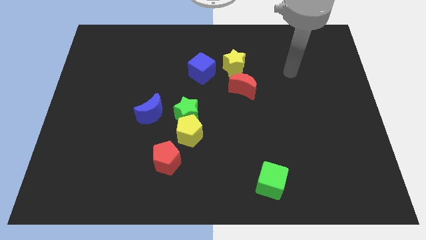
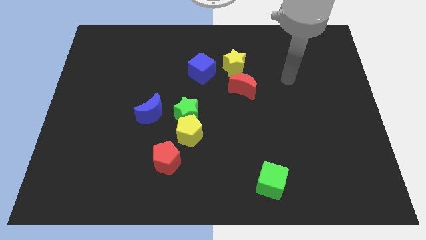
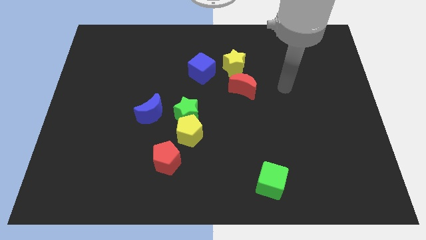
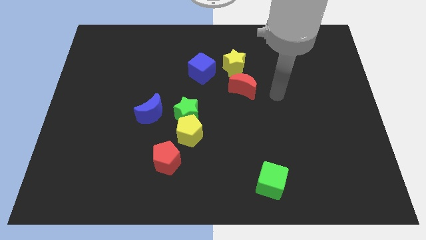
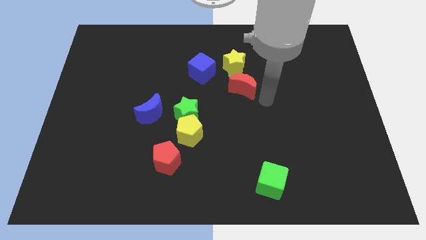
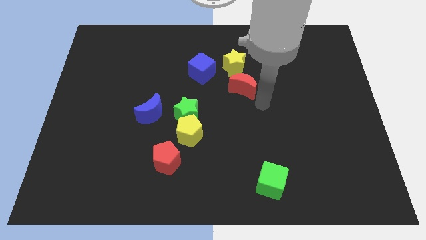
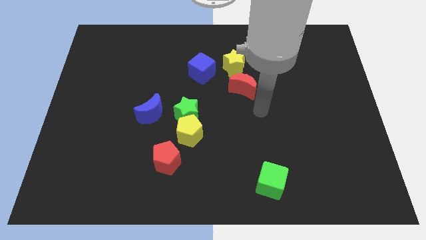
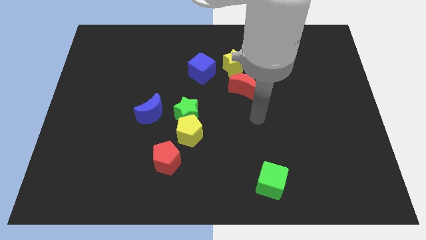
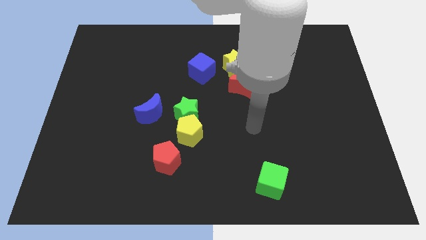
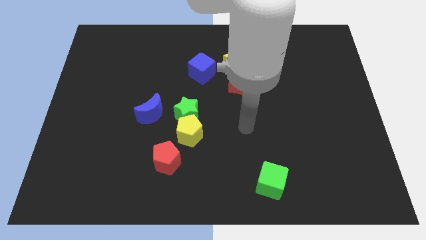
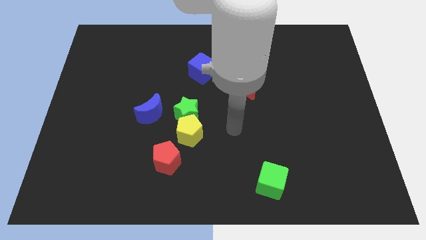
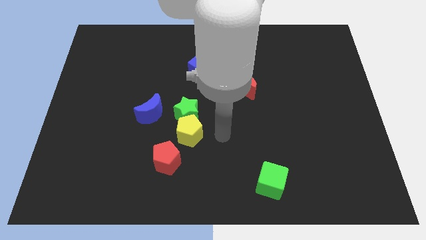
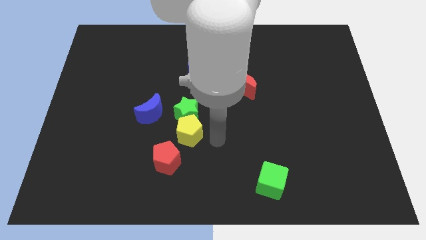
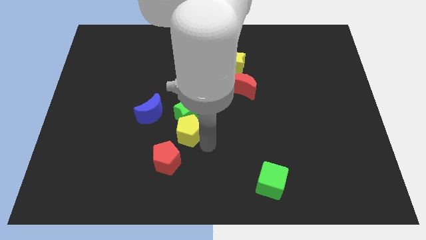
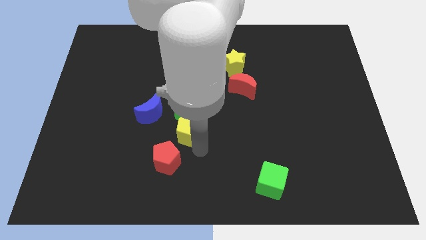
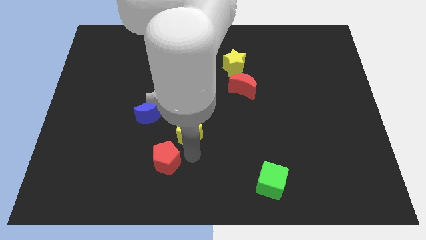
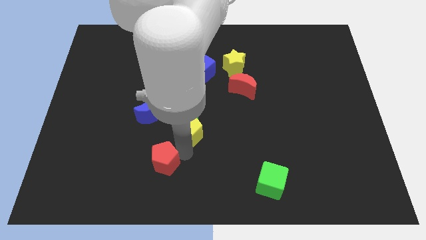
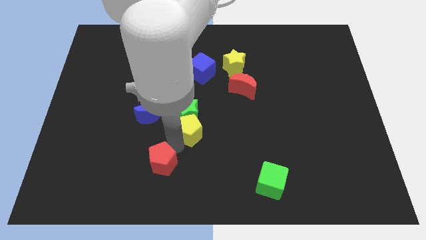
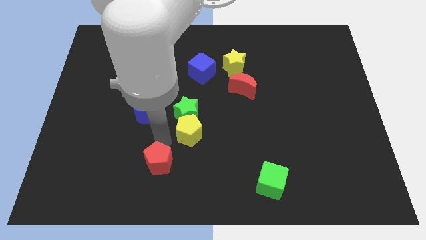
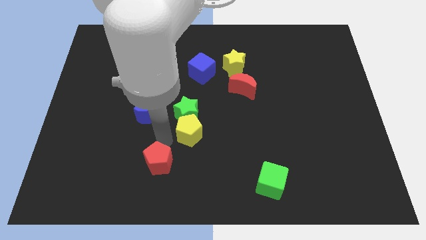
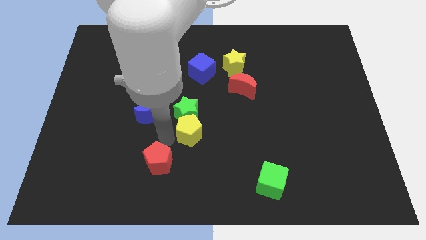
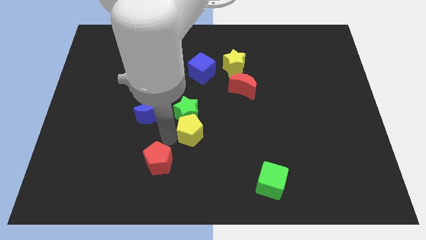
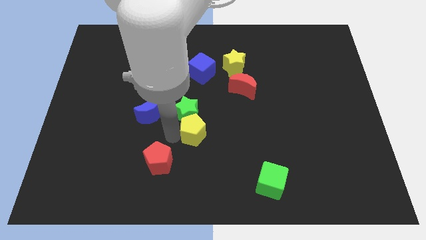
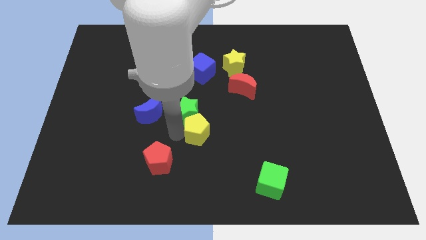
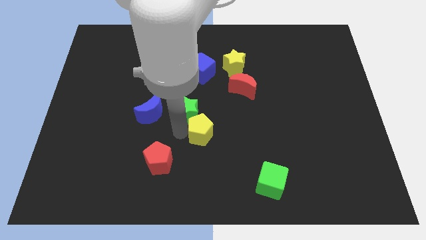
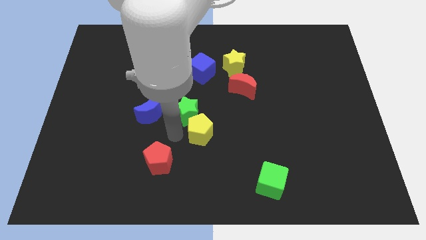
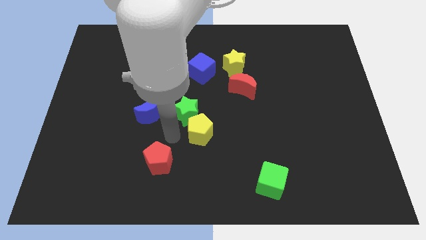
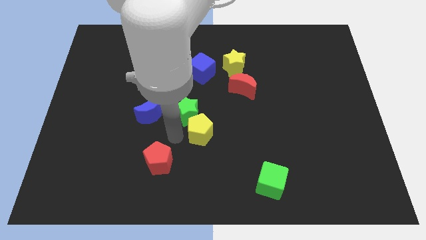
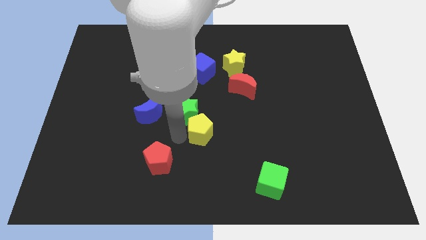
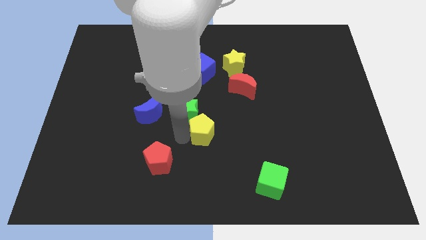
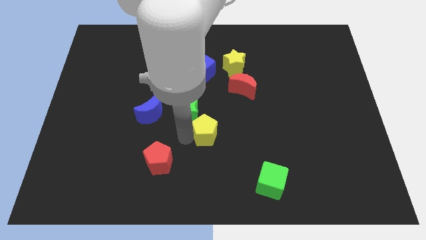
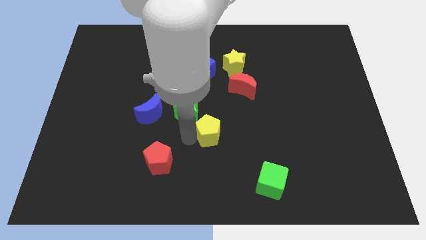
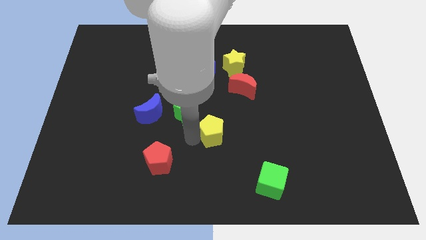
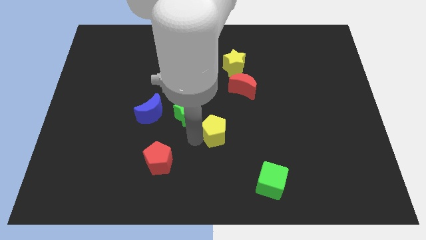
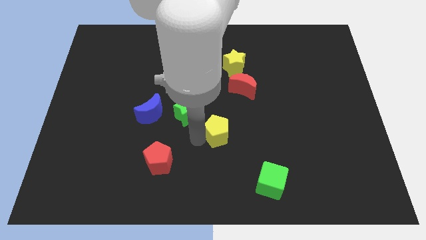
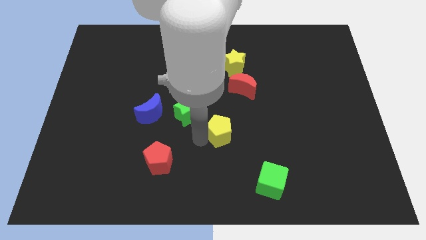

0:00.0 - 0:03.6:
pull the yellow pentagon apart from the green star and red pentagon

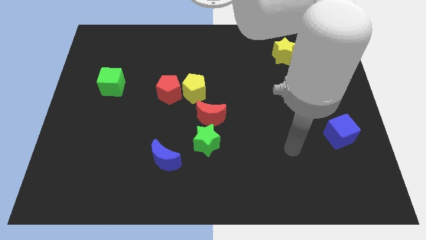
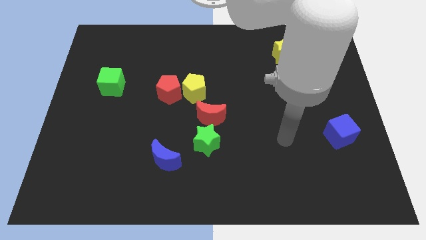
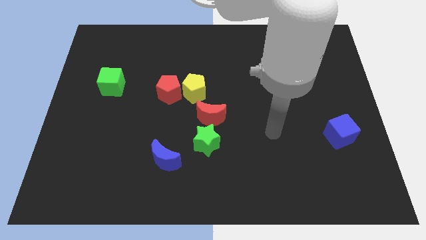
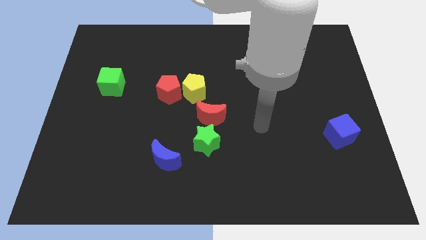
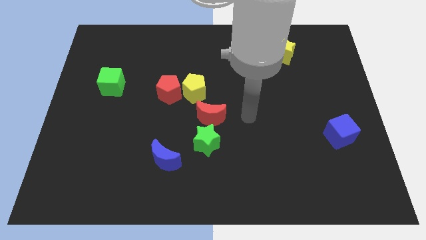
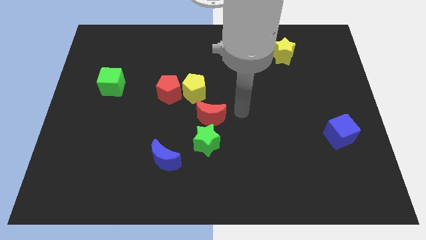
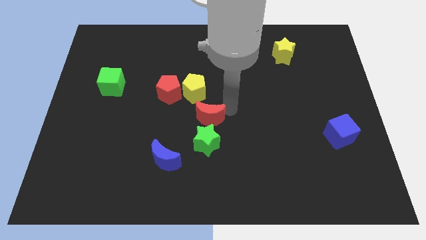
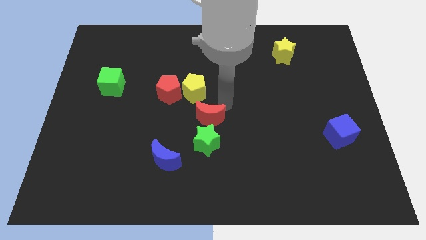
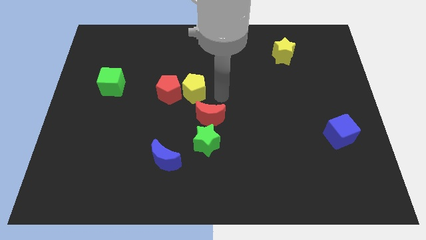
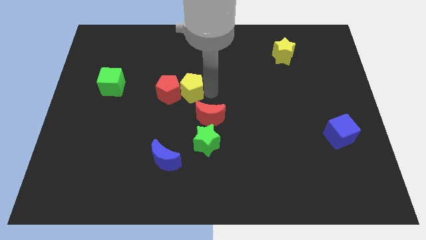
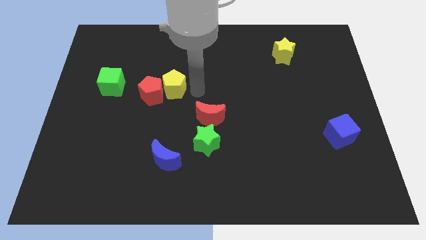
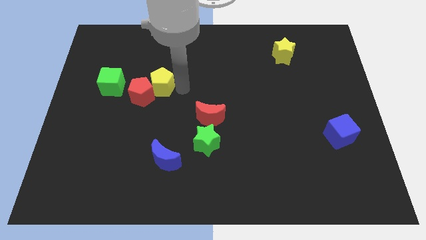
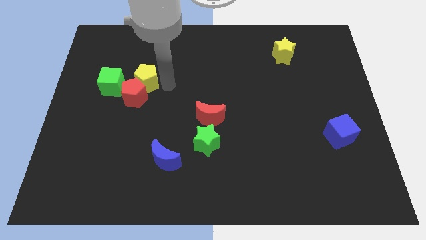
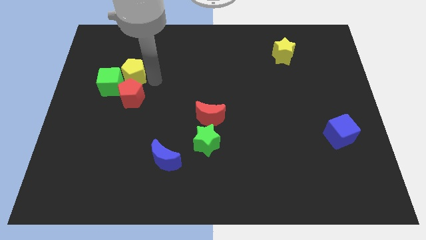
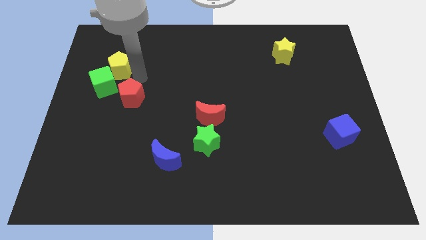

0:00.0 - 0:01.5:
move the red pentagon away from the yellow pentagon

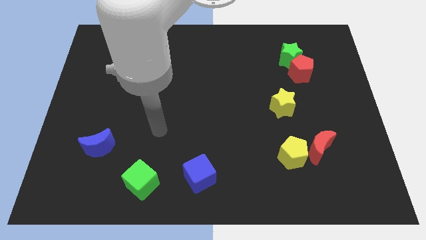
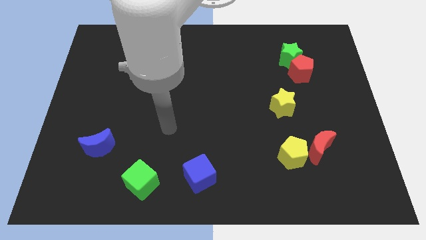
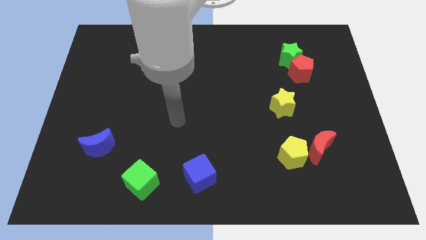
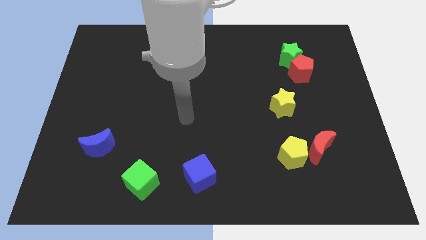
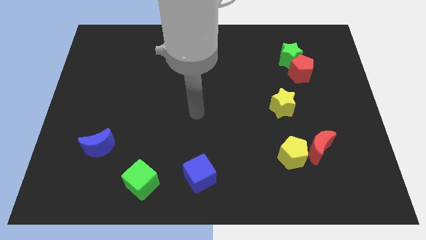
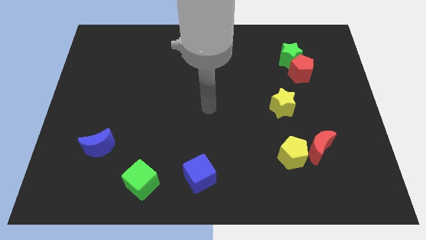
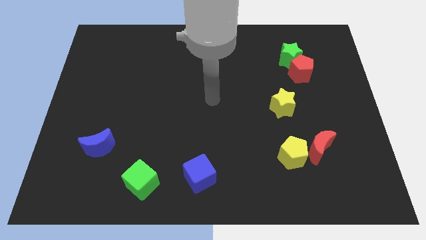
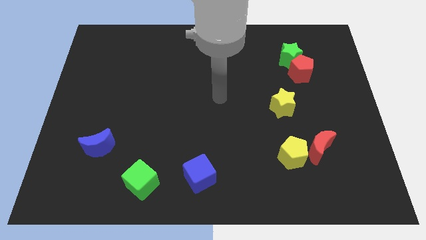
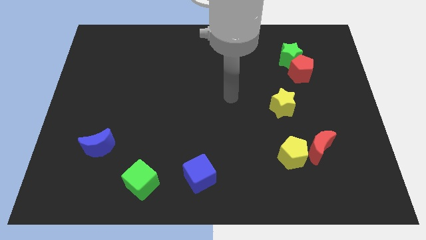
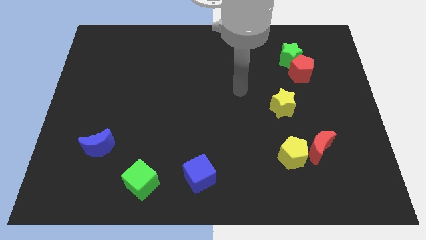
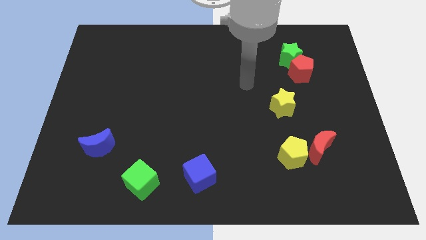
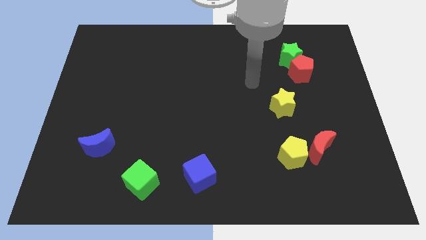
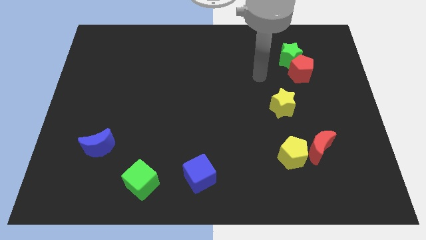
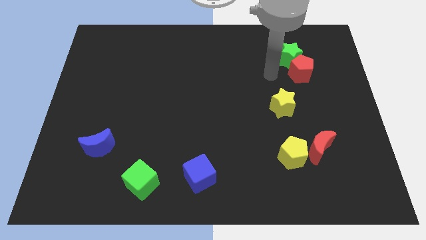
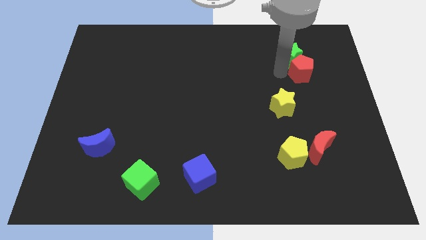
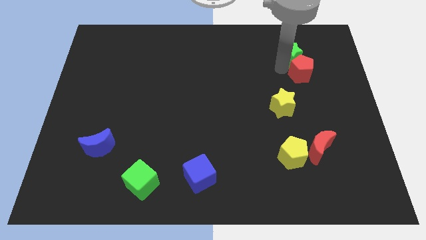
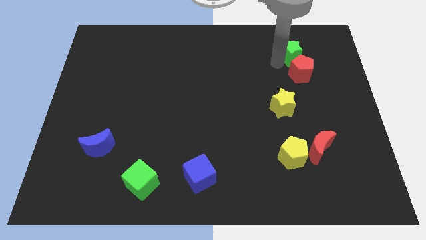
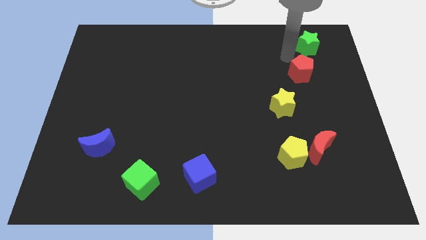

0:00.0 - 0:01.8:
pull the red pentagon apart from the green star

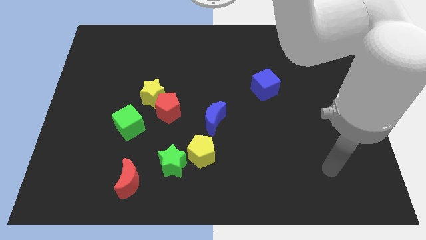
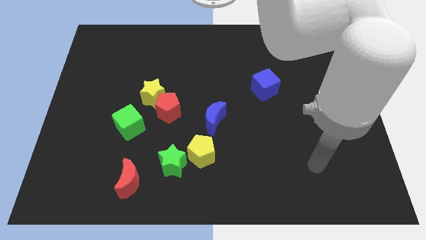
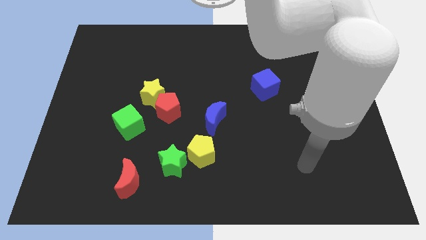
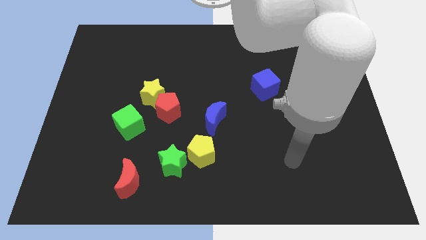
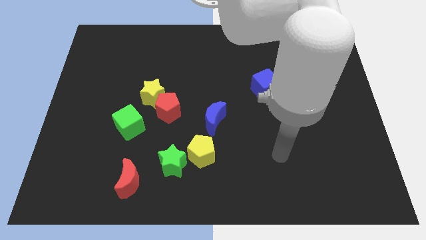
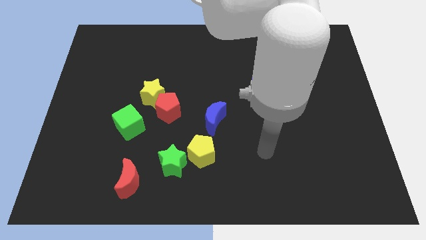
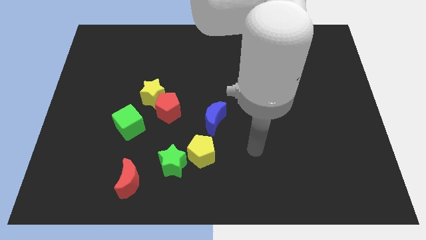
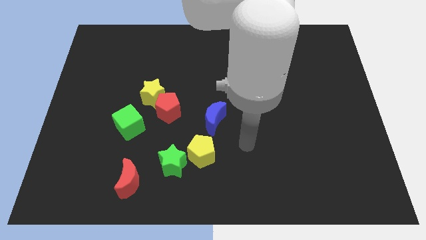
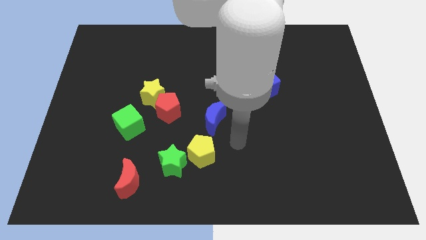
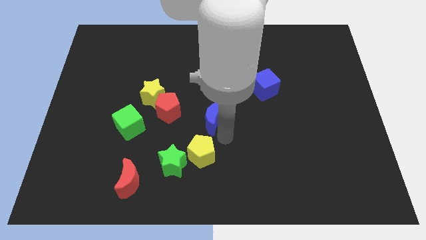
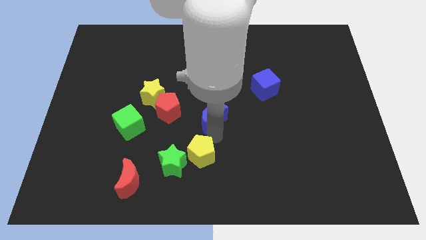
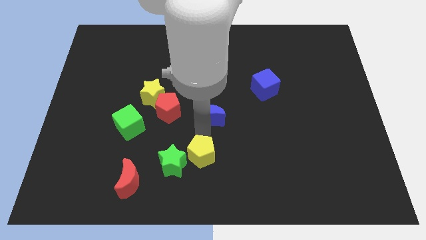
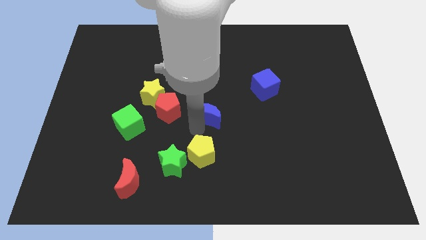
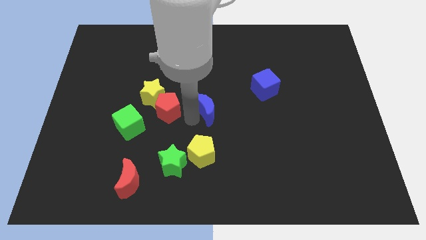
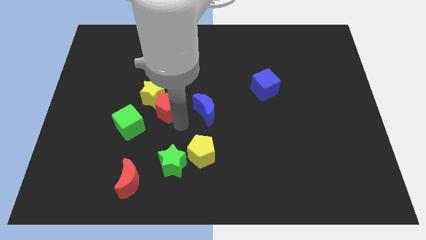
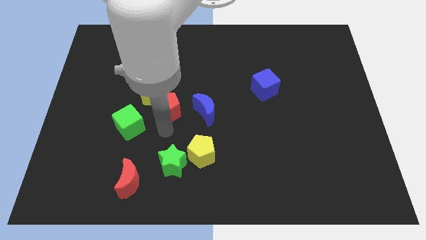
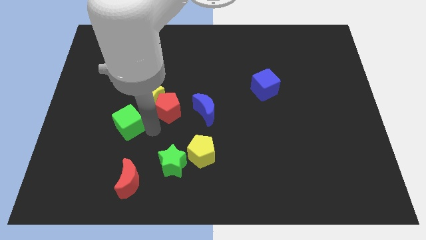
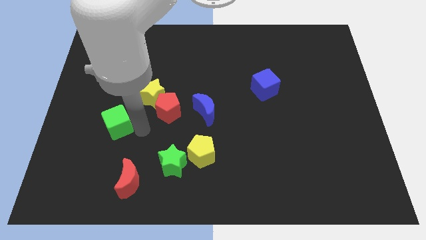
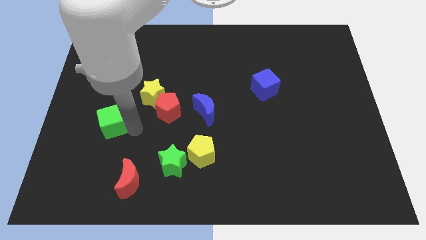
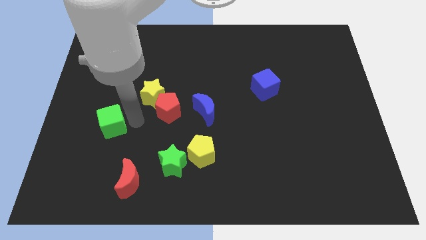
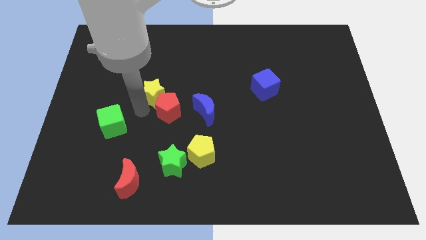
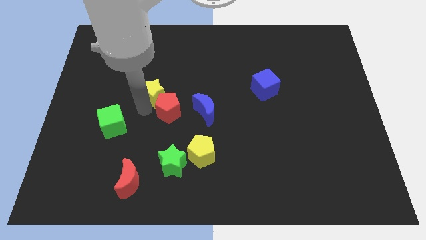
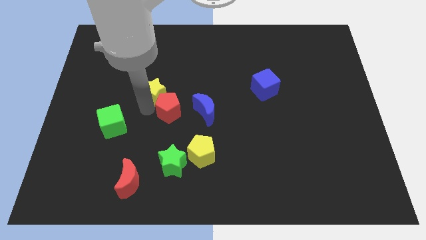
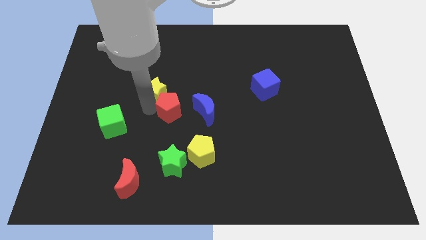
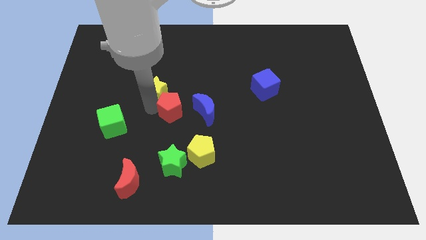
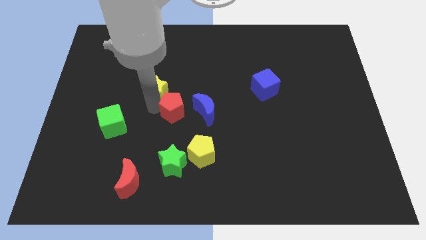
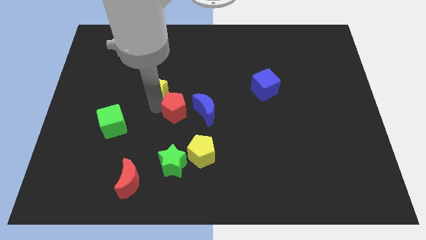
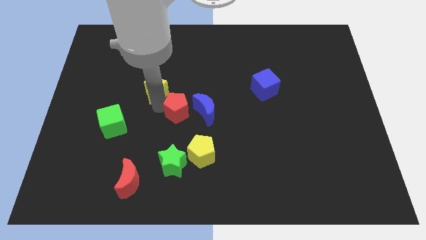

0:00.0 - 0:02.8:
separate the red pentagon from the yellow star and green cube
